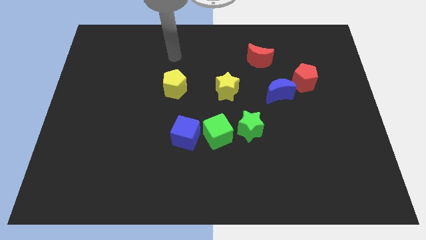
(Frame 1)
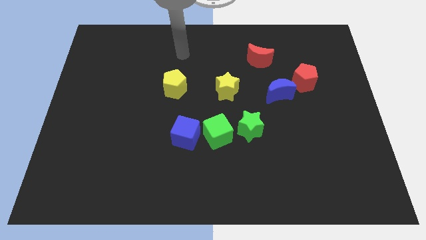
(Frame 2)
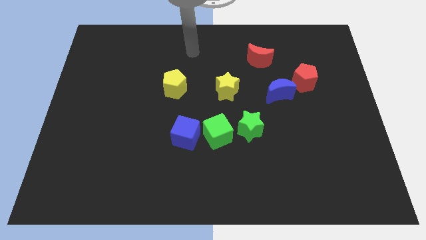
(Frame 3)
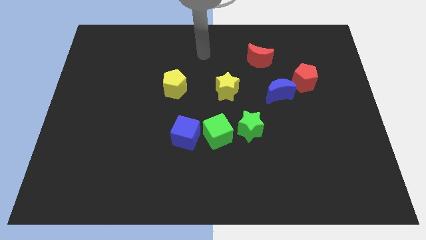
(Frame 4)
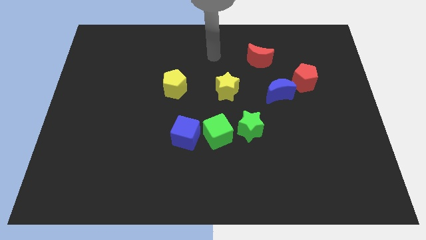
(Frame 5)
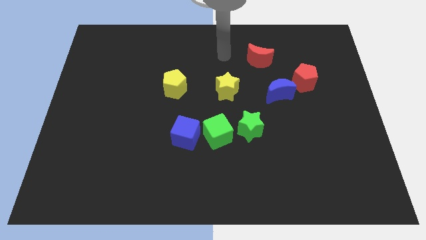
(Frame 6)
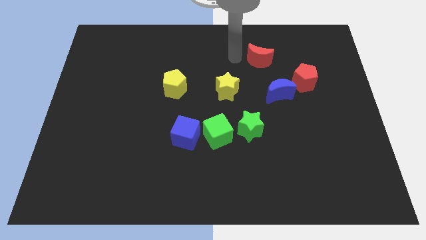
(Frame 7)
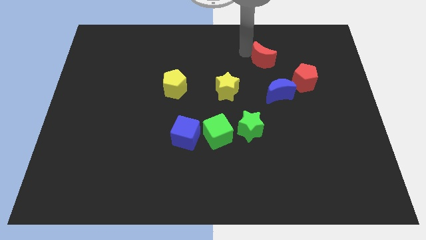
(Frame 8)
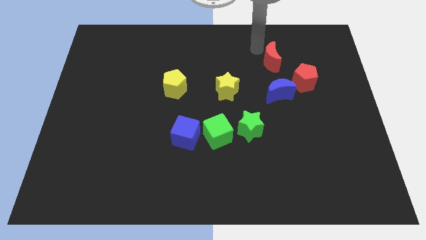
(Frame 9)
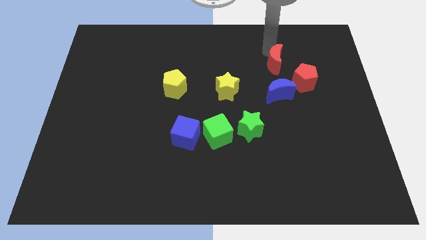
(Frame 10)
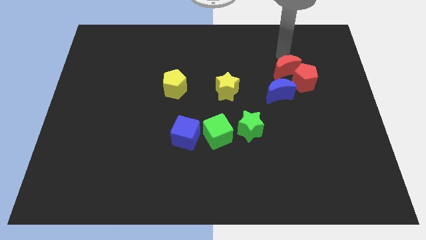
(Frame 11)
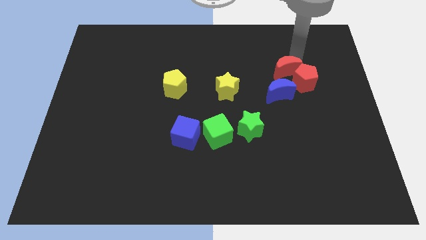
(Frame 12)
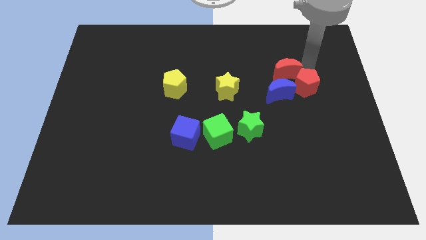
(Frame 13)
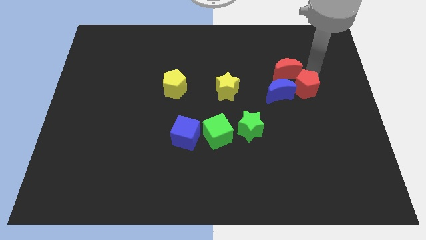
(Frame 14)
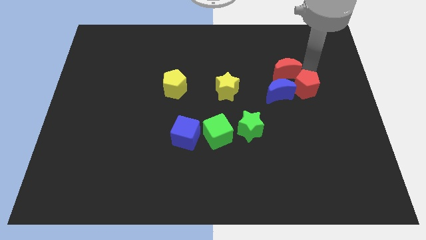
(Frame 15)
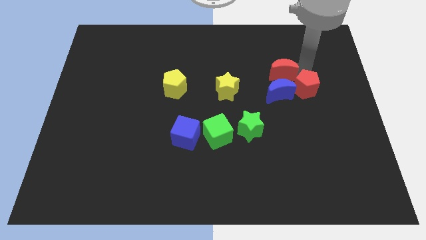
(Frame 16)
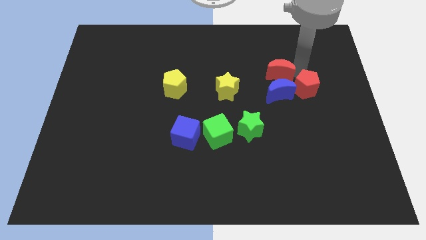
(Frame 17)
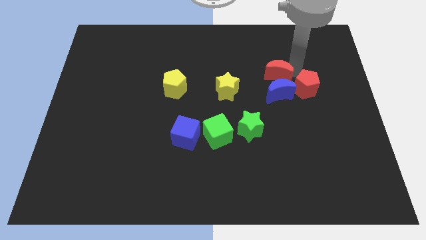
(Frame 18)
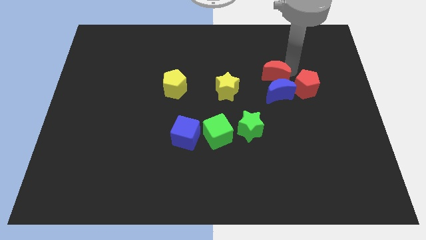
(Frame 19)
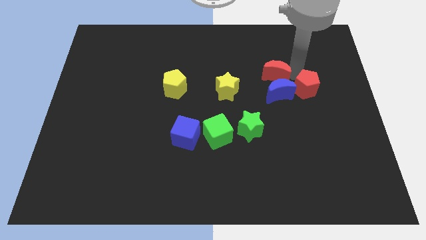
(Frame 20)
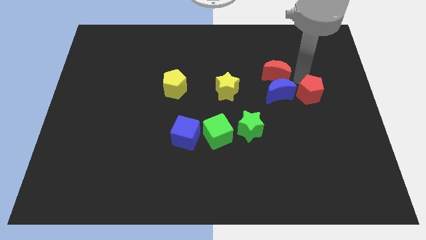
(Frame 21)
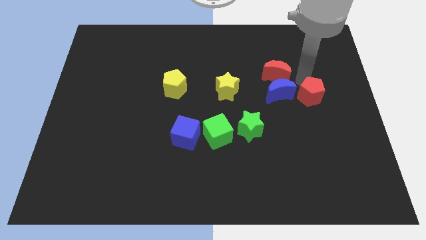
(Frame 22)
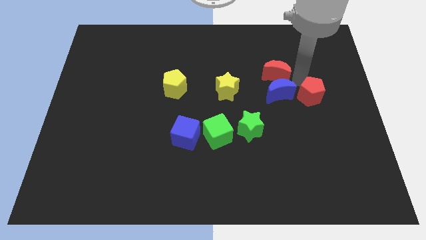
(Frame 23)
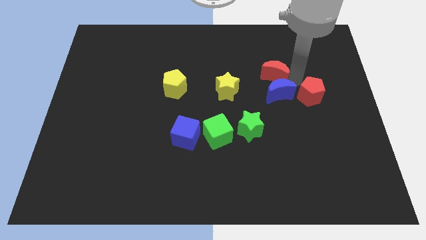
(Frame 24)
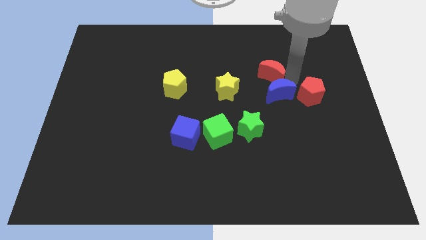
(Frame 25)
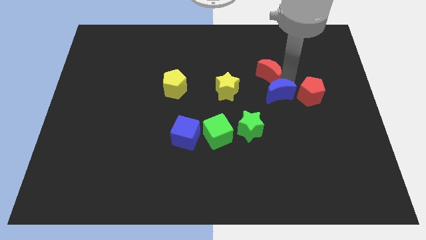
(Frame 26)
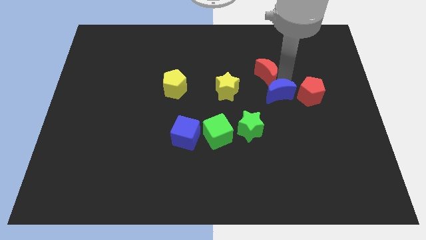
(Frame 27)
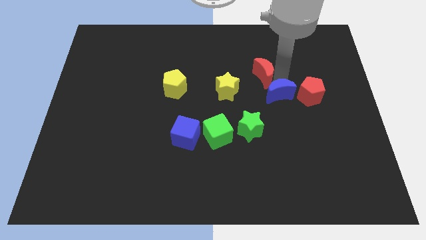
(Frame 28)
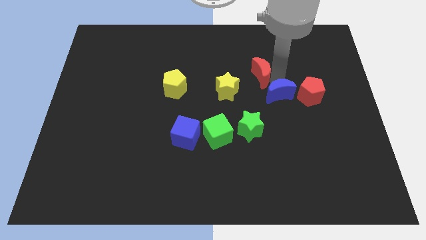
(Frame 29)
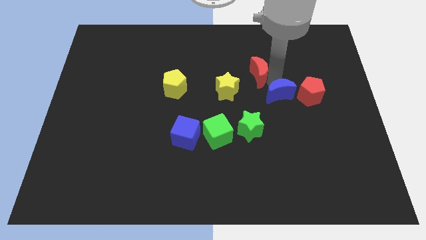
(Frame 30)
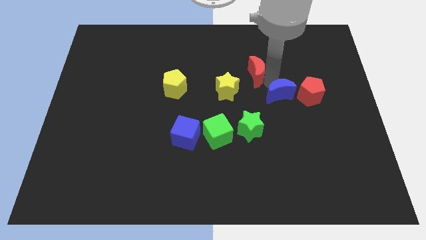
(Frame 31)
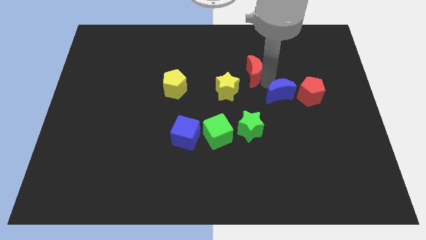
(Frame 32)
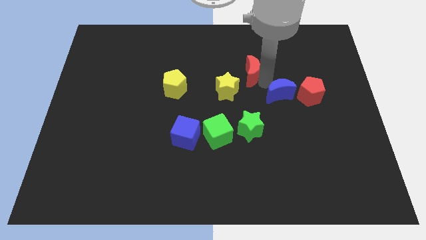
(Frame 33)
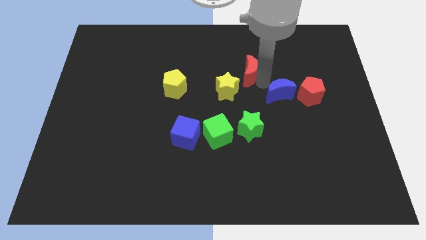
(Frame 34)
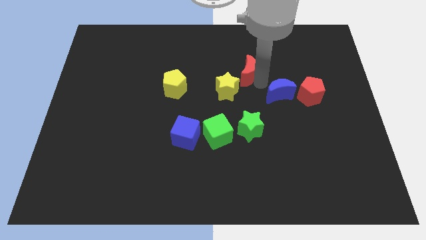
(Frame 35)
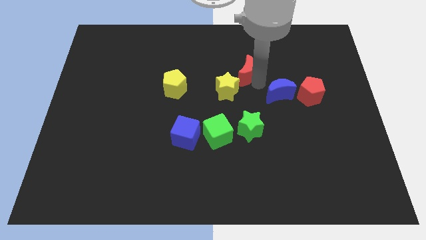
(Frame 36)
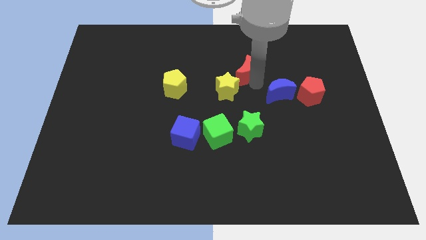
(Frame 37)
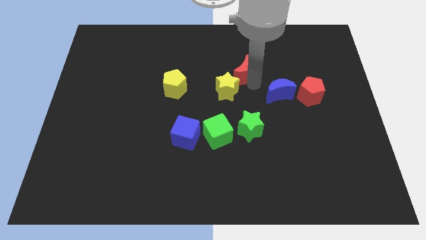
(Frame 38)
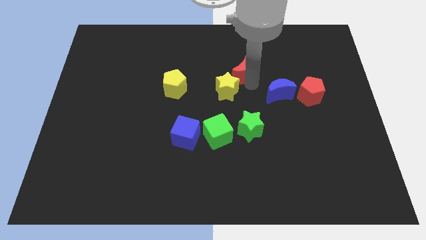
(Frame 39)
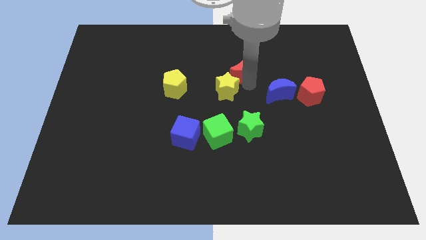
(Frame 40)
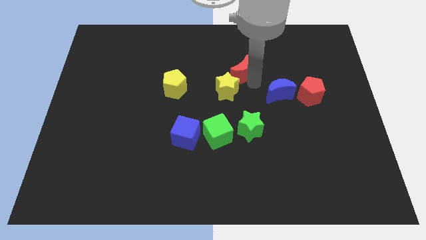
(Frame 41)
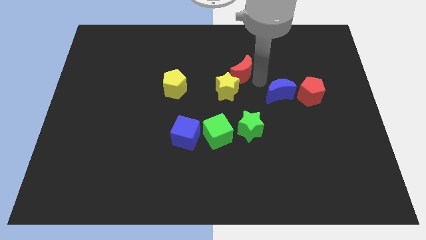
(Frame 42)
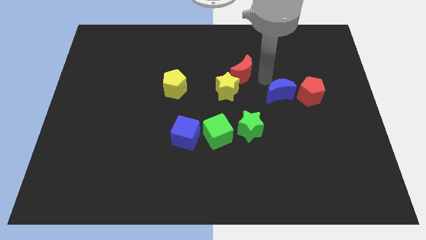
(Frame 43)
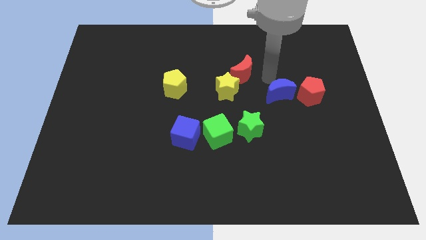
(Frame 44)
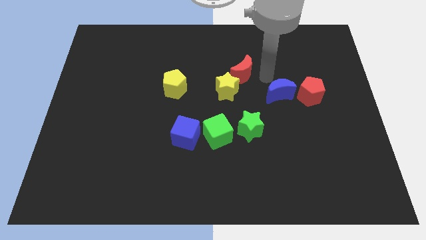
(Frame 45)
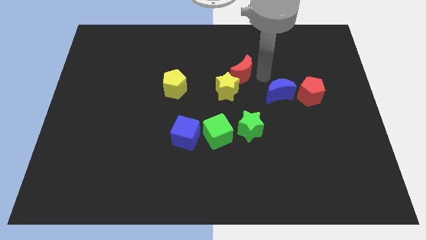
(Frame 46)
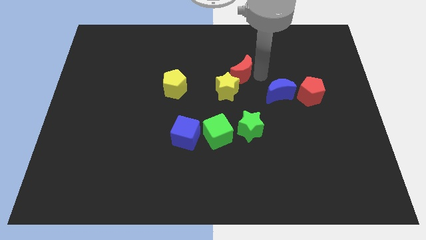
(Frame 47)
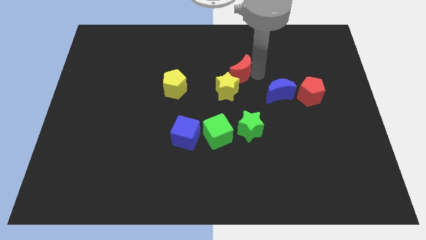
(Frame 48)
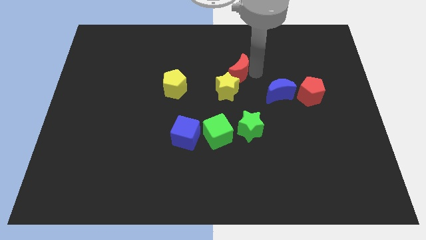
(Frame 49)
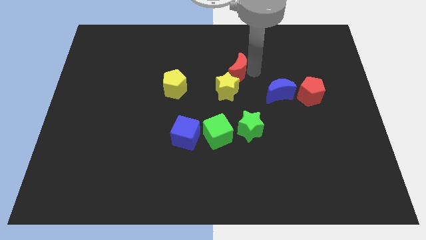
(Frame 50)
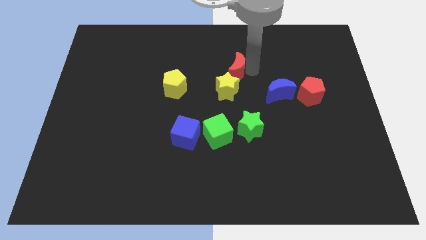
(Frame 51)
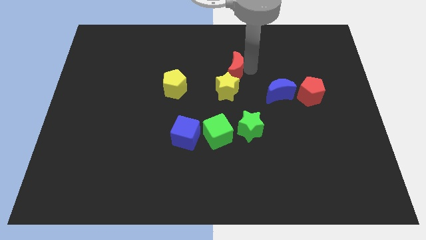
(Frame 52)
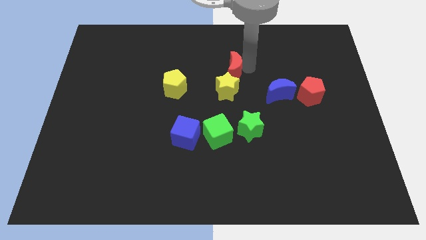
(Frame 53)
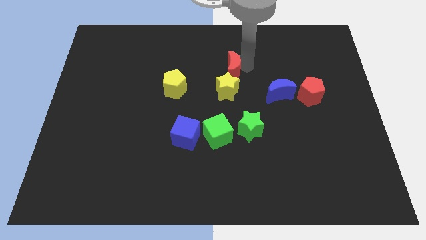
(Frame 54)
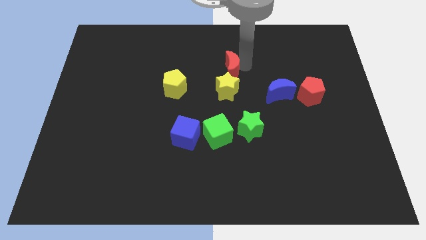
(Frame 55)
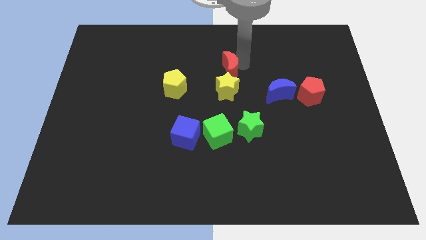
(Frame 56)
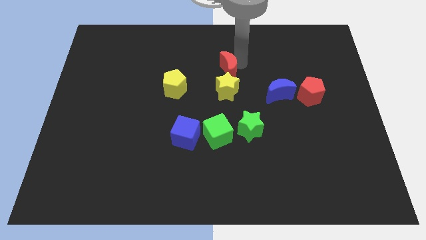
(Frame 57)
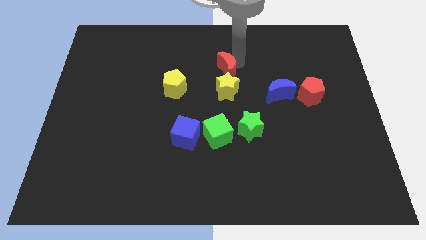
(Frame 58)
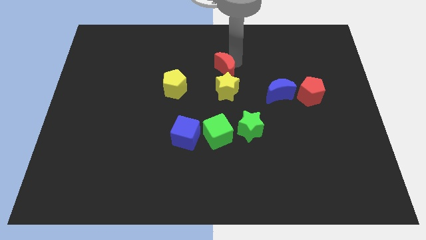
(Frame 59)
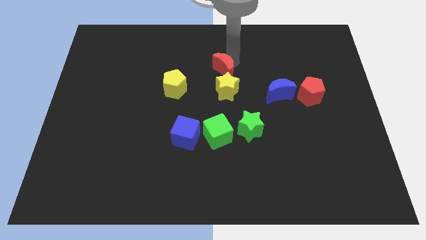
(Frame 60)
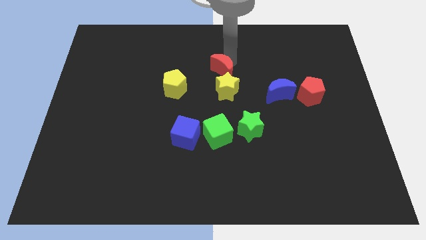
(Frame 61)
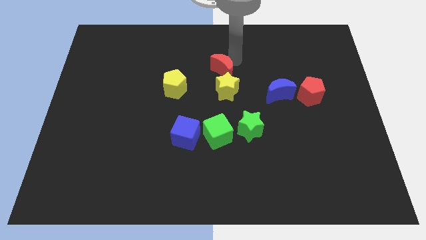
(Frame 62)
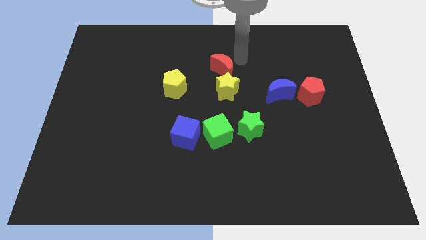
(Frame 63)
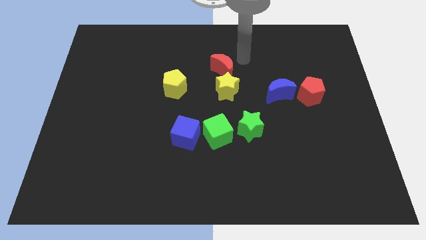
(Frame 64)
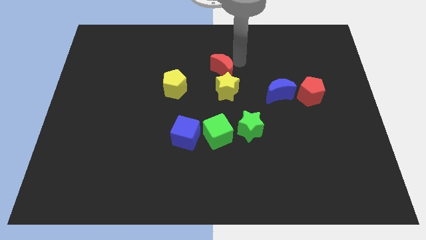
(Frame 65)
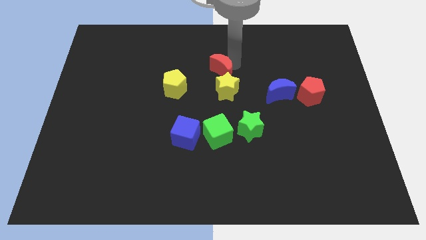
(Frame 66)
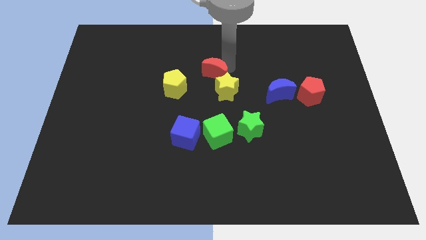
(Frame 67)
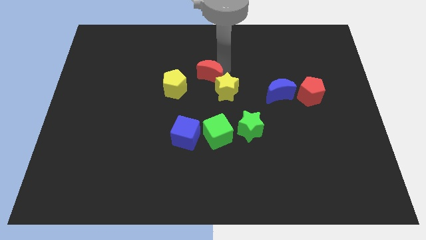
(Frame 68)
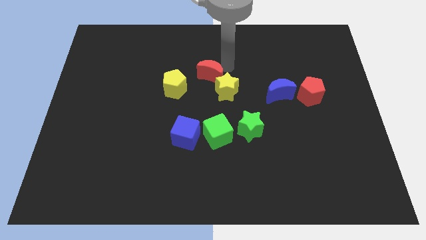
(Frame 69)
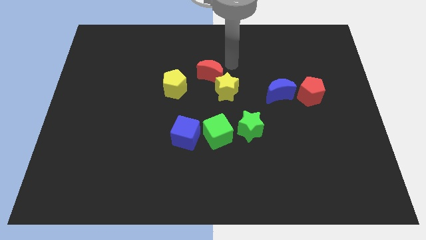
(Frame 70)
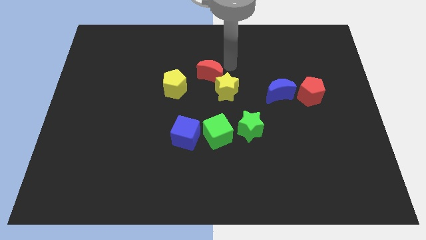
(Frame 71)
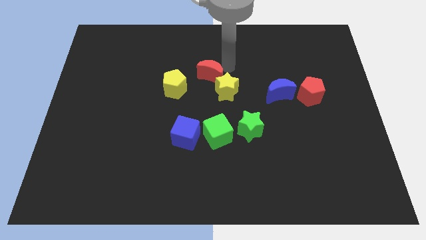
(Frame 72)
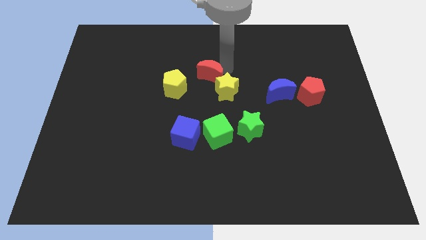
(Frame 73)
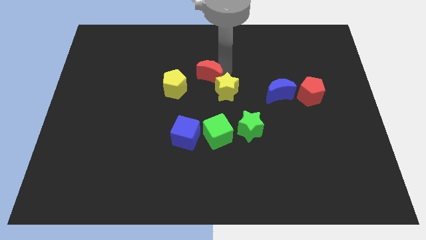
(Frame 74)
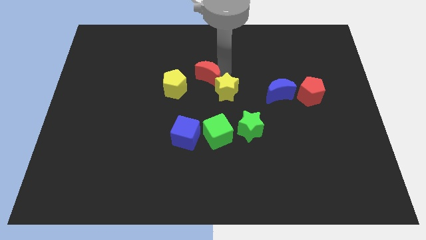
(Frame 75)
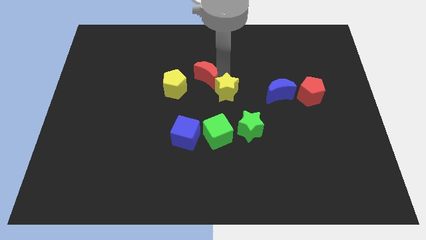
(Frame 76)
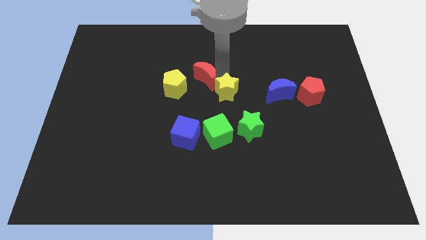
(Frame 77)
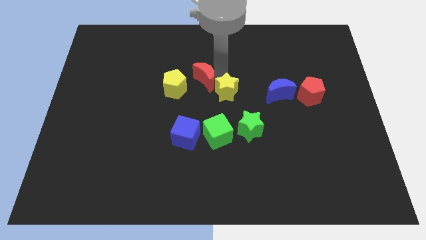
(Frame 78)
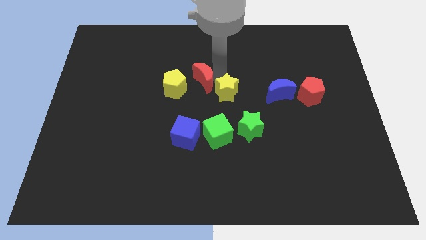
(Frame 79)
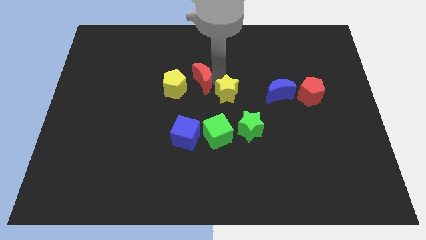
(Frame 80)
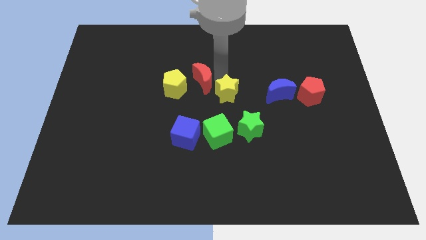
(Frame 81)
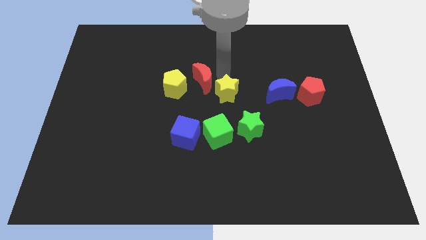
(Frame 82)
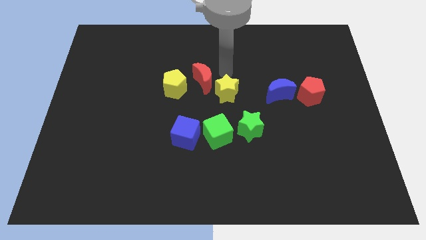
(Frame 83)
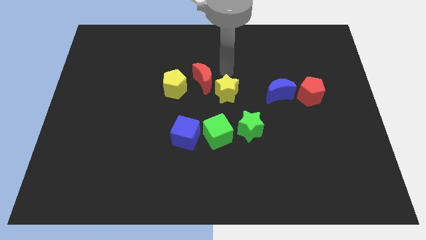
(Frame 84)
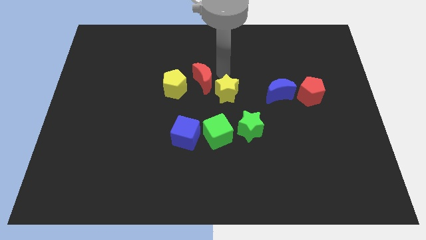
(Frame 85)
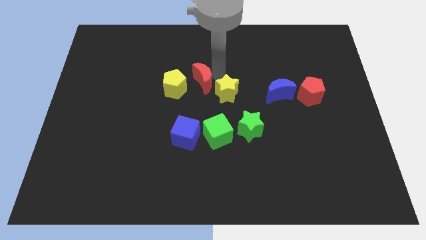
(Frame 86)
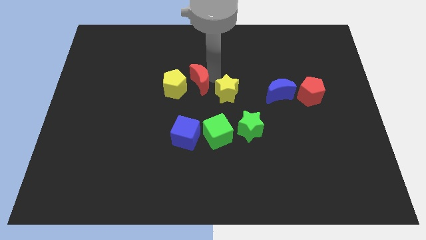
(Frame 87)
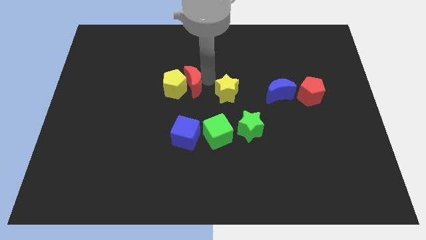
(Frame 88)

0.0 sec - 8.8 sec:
slide the red moon next to the yellow pentagon
